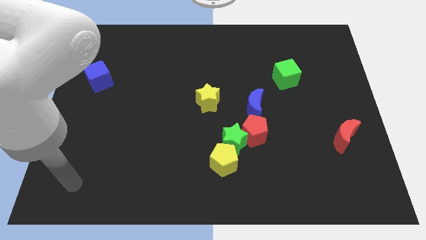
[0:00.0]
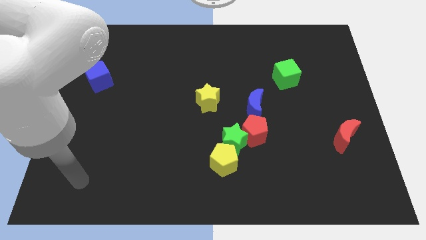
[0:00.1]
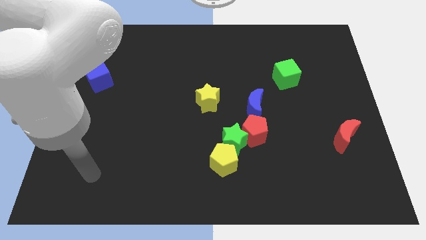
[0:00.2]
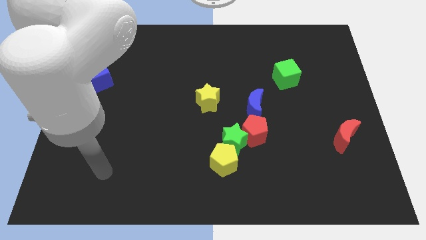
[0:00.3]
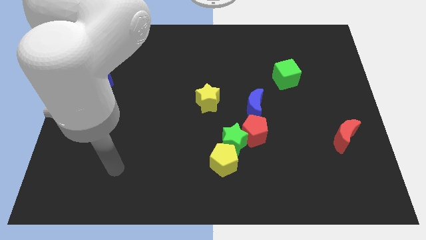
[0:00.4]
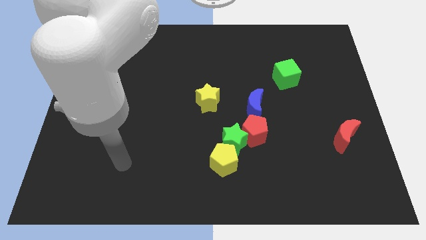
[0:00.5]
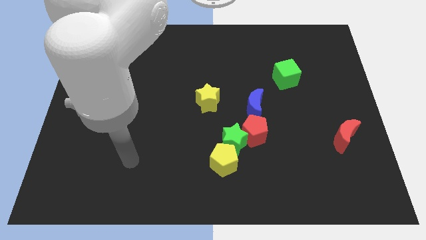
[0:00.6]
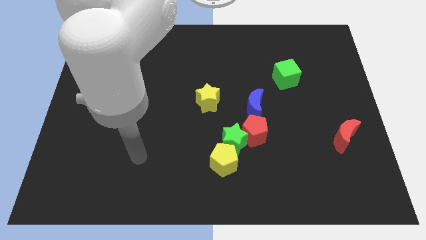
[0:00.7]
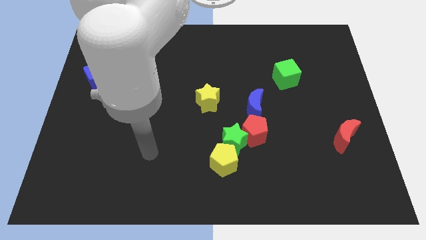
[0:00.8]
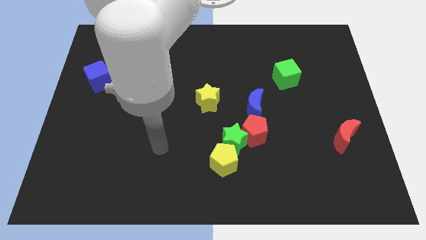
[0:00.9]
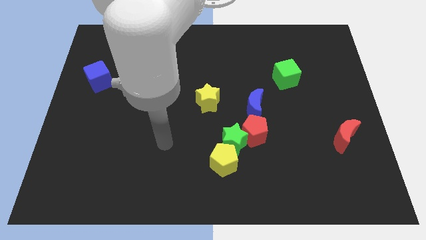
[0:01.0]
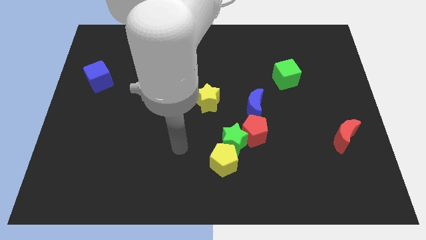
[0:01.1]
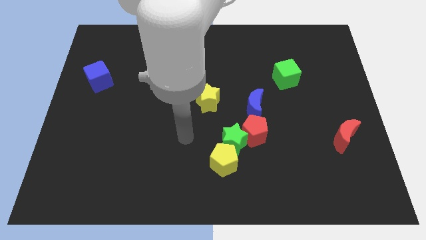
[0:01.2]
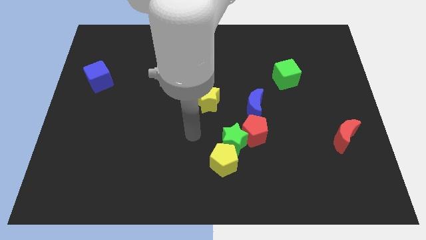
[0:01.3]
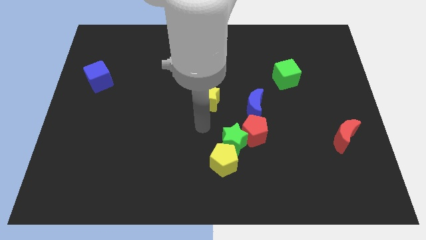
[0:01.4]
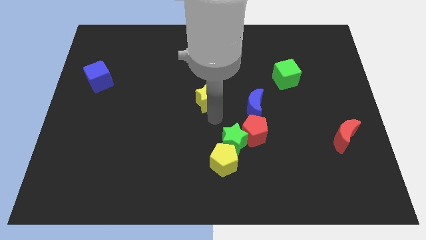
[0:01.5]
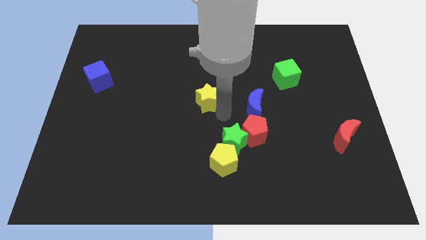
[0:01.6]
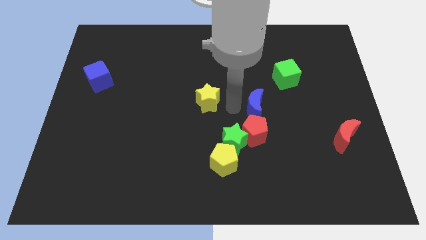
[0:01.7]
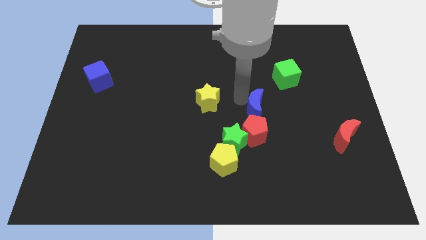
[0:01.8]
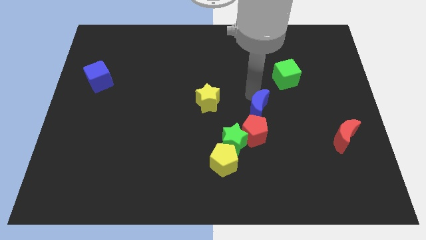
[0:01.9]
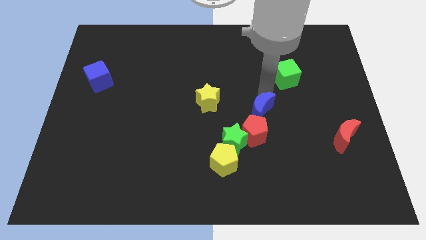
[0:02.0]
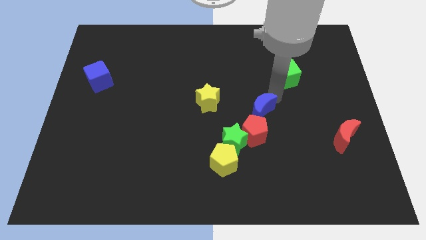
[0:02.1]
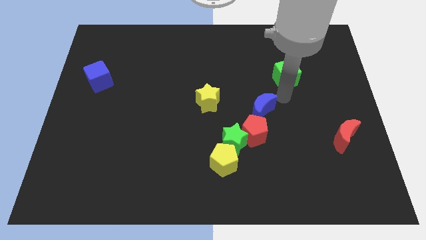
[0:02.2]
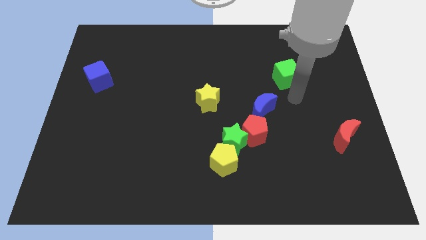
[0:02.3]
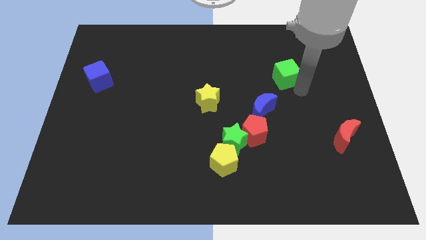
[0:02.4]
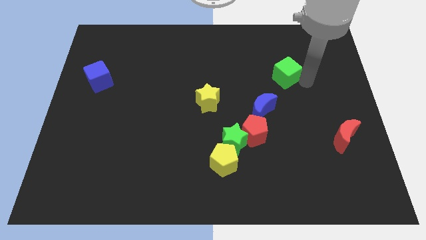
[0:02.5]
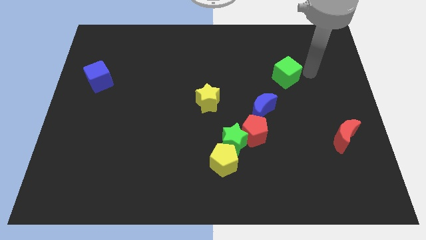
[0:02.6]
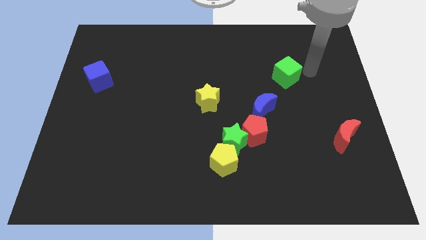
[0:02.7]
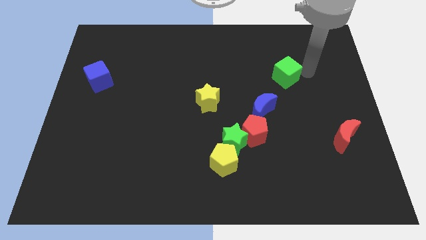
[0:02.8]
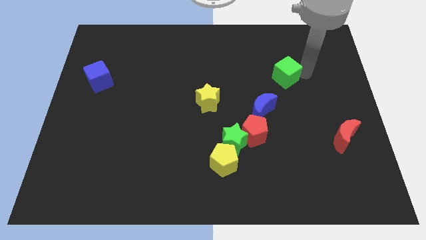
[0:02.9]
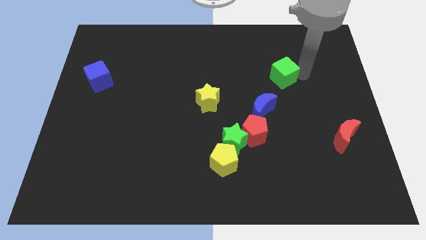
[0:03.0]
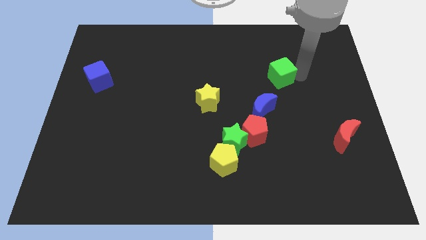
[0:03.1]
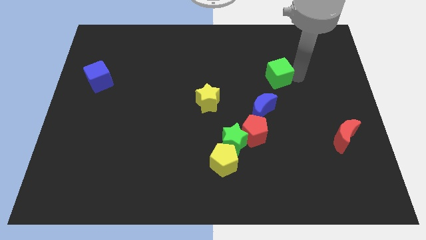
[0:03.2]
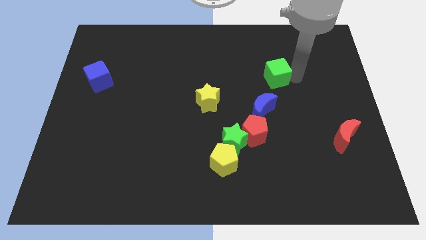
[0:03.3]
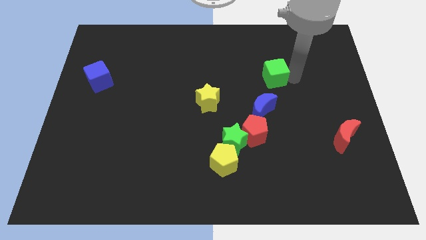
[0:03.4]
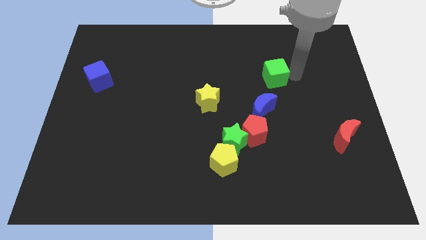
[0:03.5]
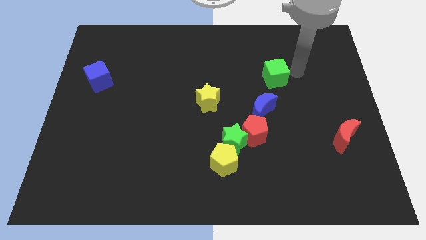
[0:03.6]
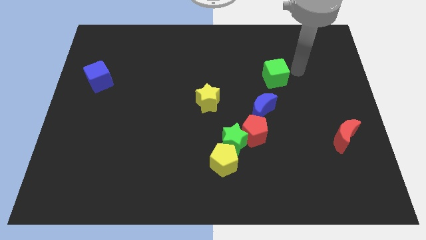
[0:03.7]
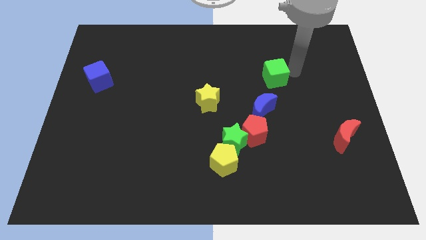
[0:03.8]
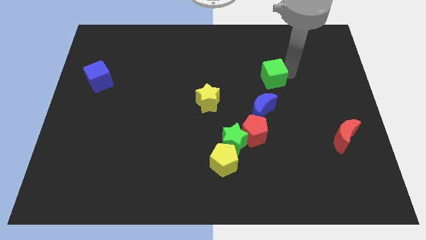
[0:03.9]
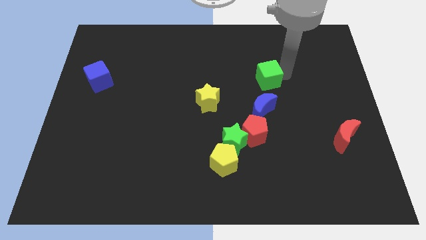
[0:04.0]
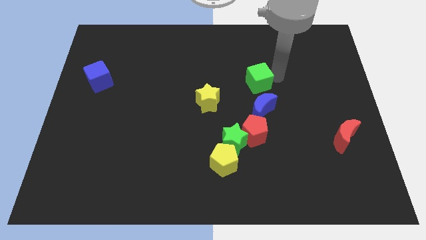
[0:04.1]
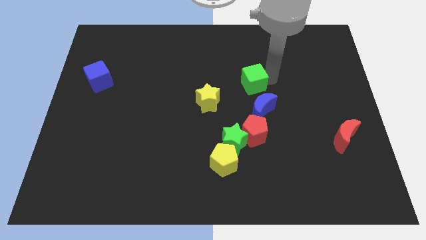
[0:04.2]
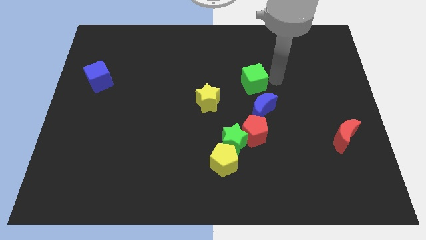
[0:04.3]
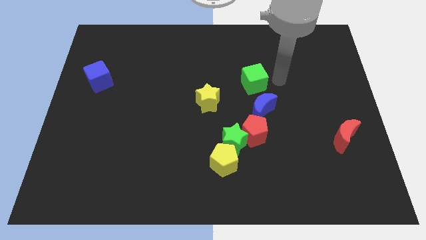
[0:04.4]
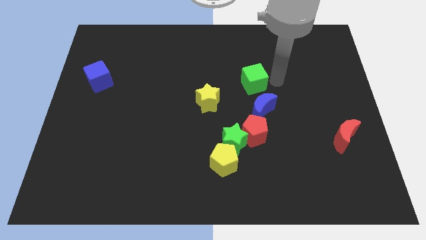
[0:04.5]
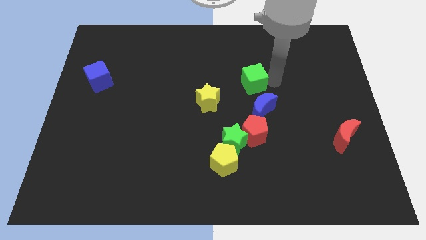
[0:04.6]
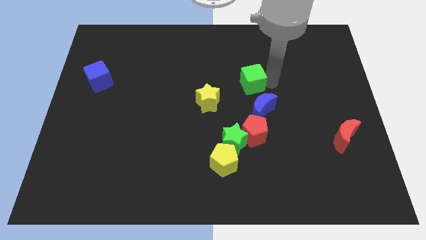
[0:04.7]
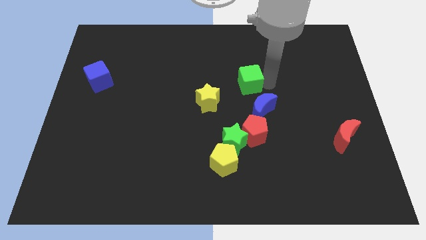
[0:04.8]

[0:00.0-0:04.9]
put the green cube to the top right side of the yellow star

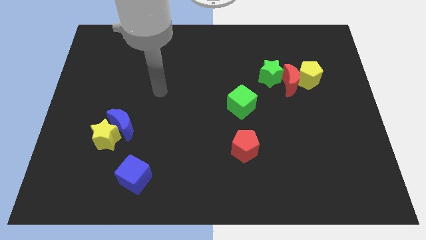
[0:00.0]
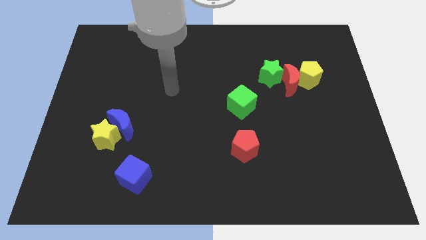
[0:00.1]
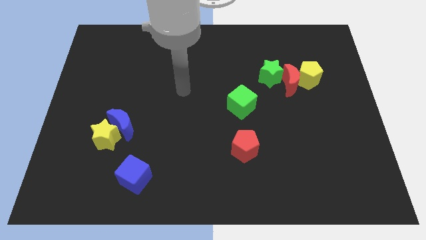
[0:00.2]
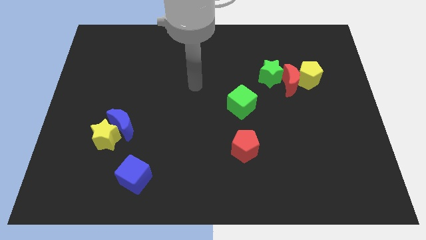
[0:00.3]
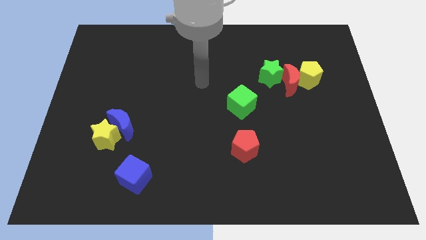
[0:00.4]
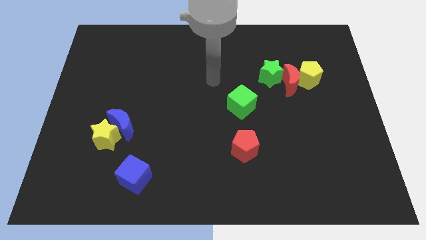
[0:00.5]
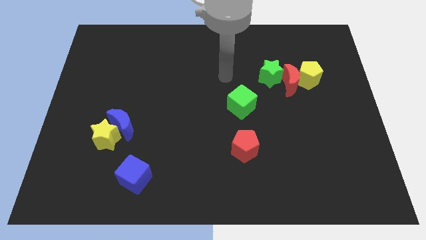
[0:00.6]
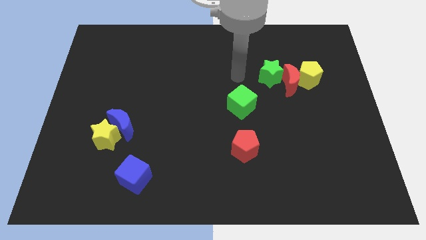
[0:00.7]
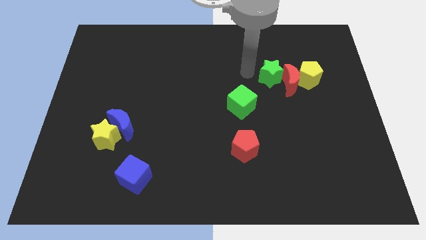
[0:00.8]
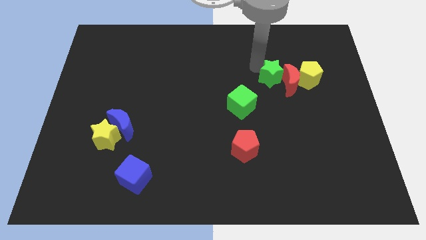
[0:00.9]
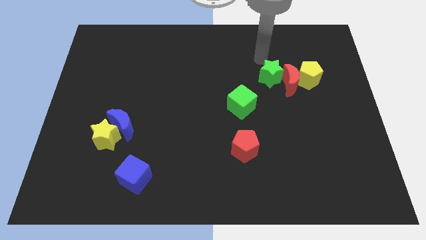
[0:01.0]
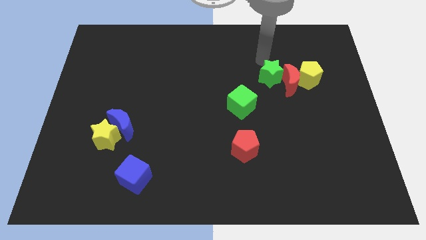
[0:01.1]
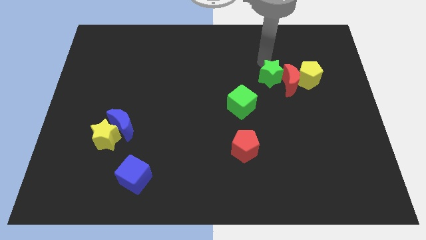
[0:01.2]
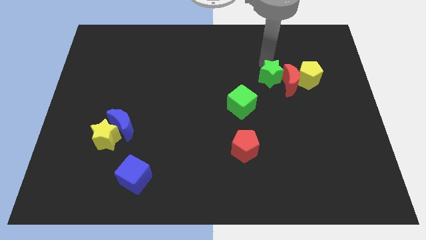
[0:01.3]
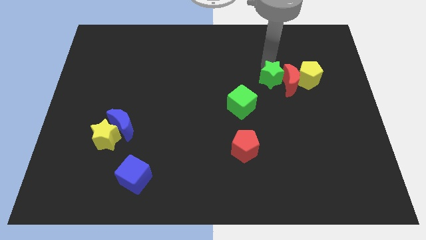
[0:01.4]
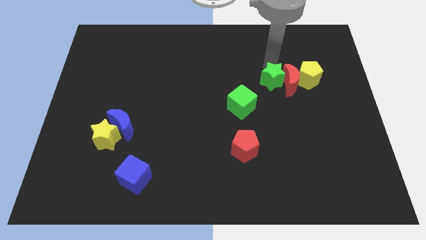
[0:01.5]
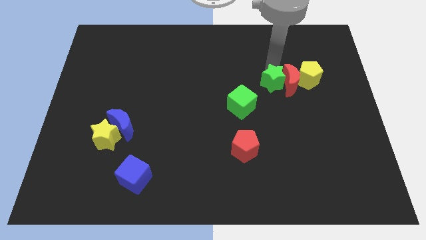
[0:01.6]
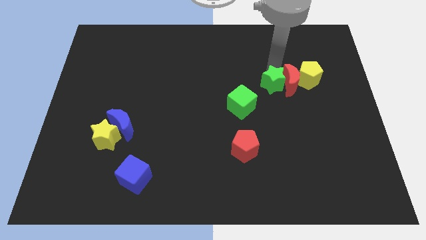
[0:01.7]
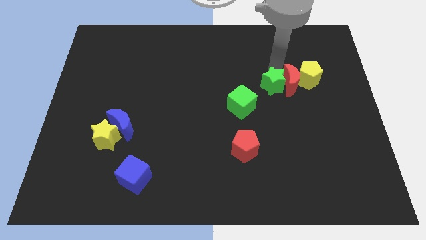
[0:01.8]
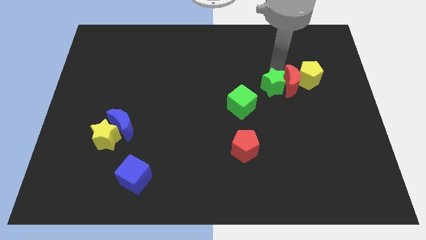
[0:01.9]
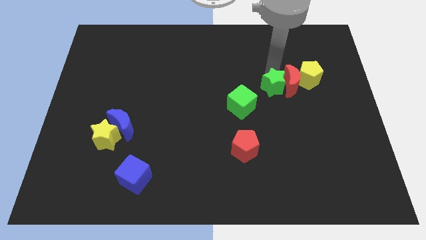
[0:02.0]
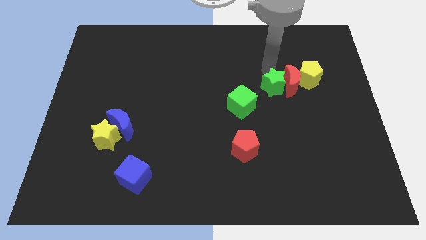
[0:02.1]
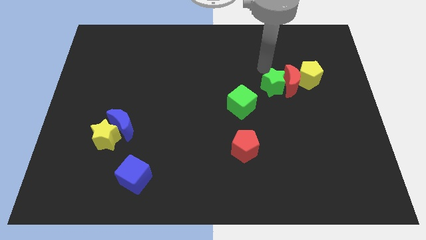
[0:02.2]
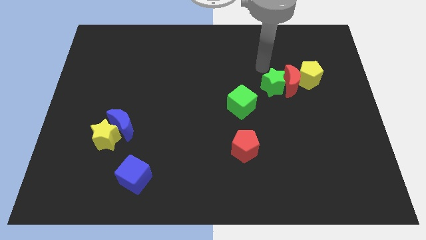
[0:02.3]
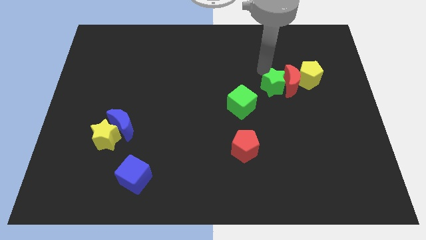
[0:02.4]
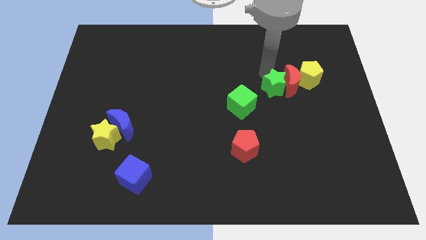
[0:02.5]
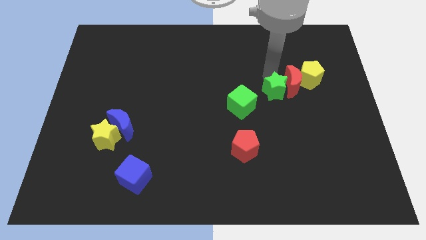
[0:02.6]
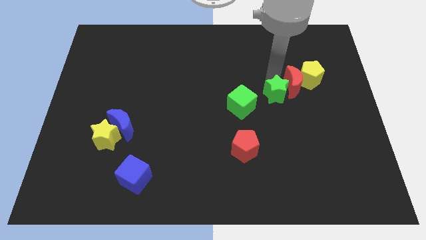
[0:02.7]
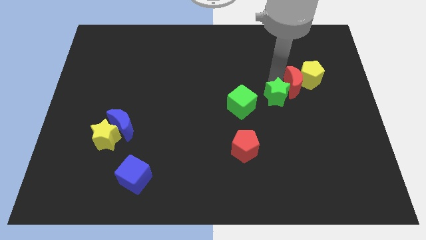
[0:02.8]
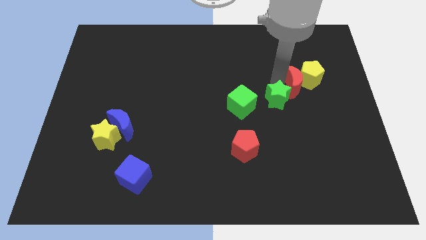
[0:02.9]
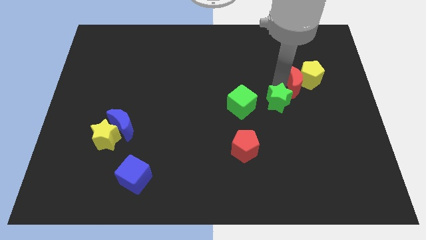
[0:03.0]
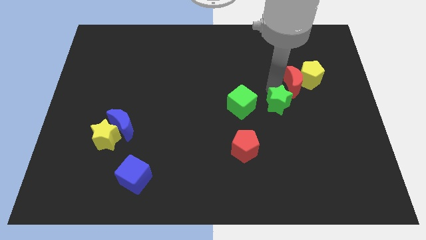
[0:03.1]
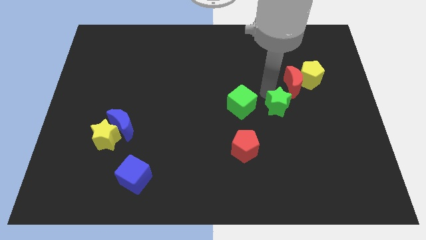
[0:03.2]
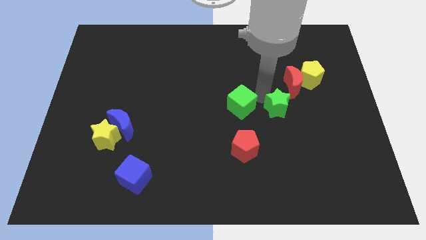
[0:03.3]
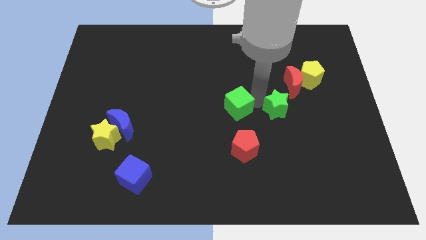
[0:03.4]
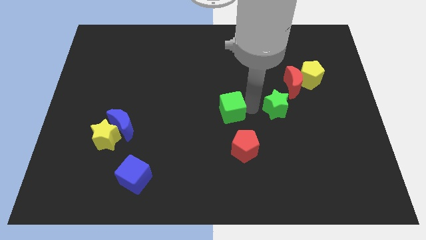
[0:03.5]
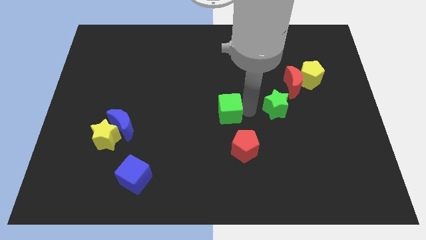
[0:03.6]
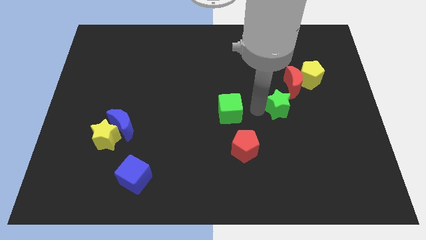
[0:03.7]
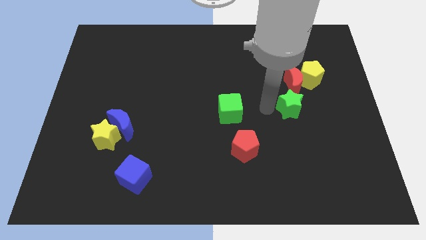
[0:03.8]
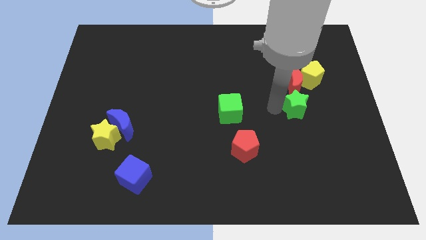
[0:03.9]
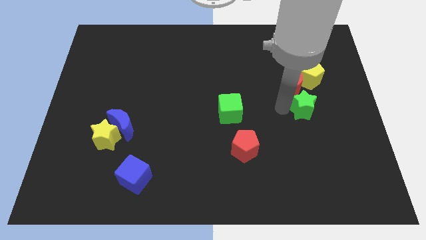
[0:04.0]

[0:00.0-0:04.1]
push the green star to the bottom right side of the red moon
